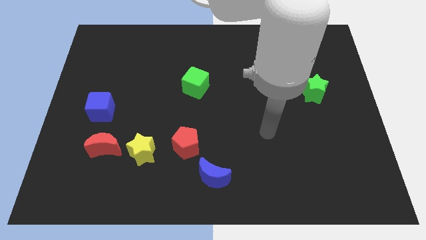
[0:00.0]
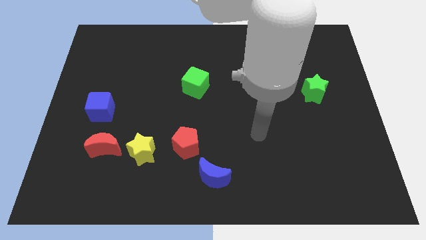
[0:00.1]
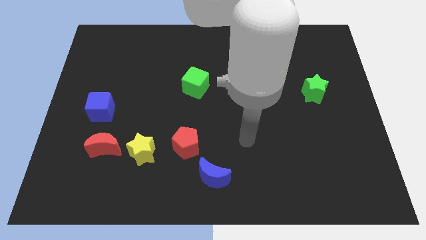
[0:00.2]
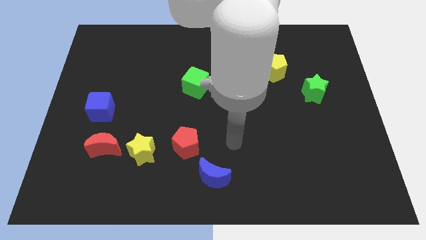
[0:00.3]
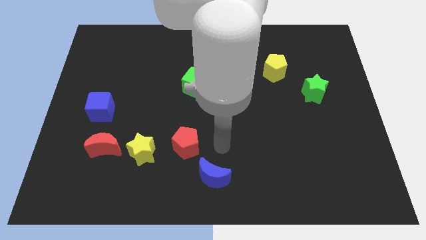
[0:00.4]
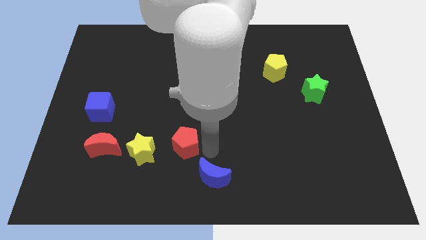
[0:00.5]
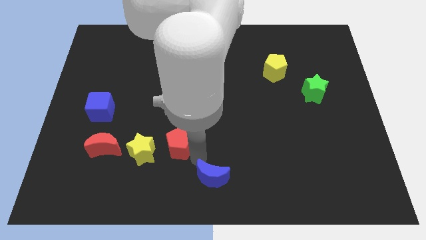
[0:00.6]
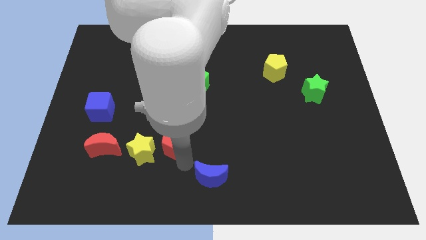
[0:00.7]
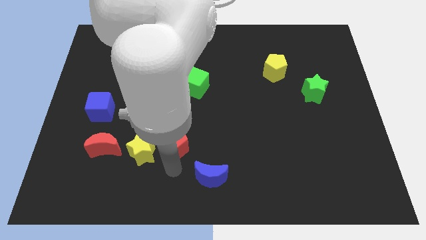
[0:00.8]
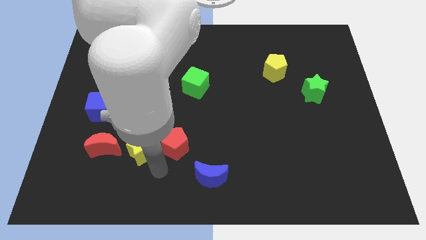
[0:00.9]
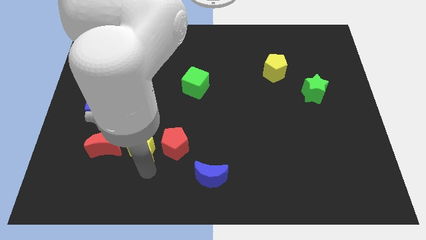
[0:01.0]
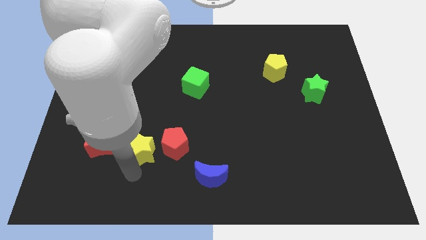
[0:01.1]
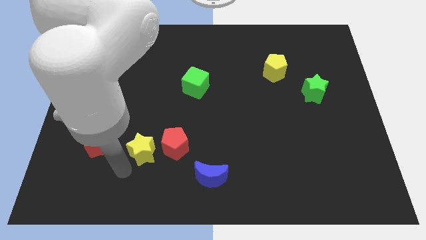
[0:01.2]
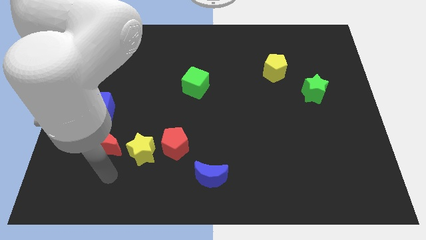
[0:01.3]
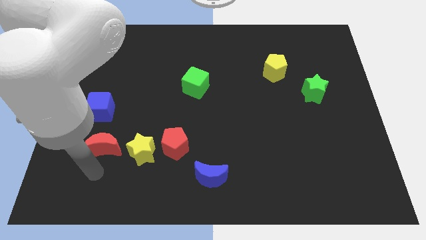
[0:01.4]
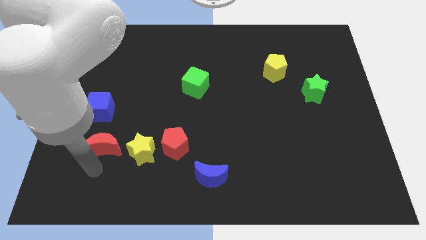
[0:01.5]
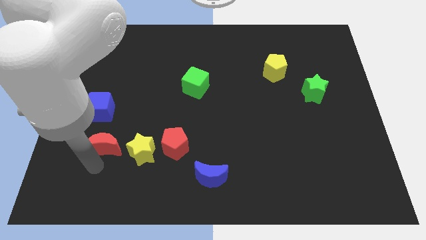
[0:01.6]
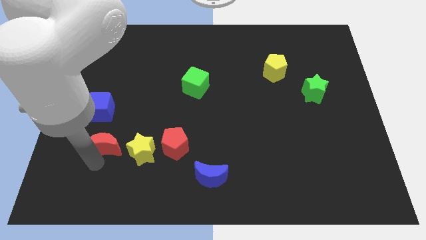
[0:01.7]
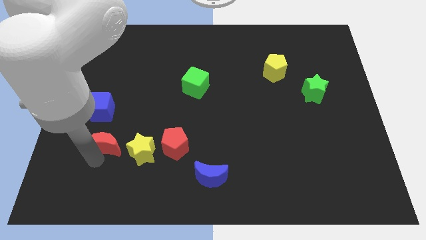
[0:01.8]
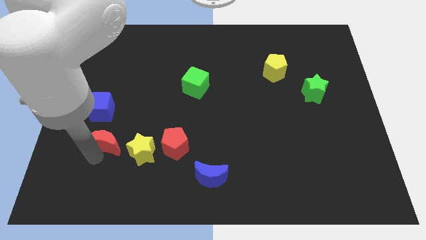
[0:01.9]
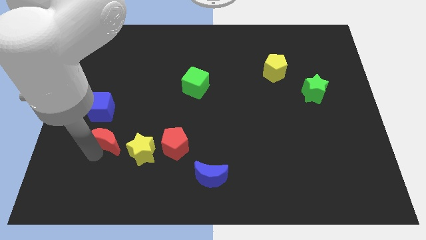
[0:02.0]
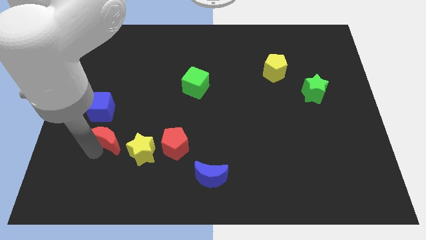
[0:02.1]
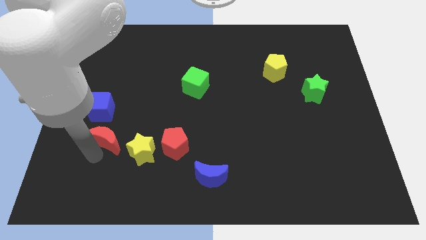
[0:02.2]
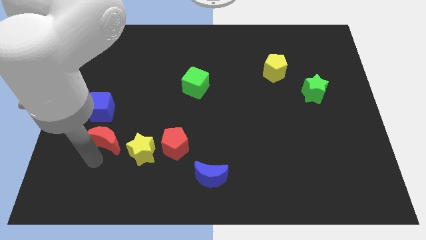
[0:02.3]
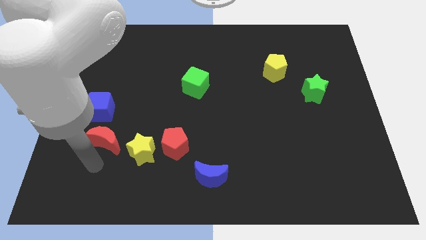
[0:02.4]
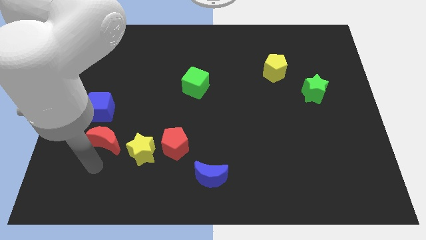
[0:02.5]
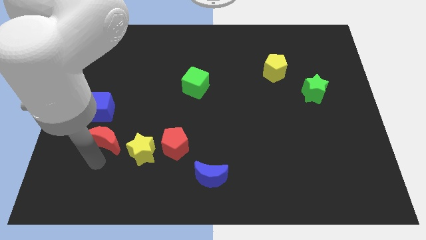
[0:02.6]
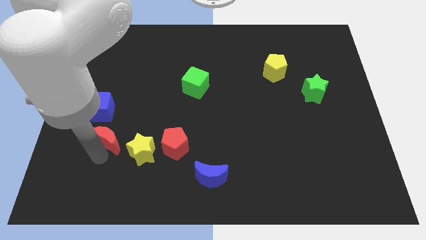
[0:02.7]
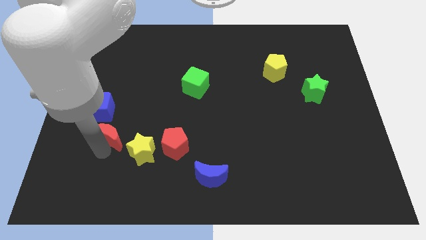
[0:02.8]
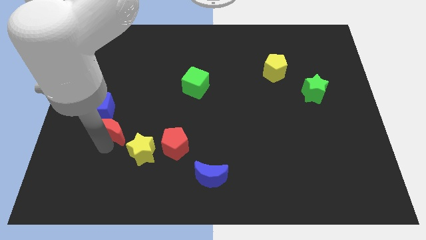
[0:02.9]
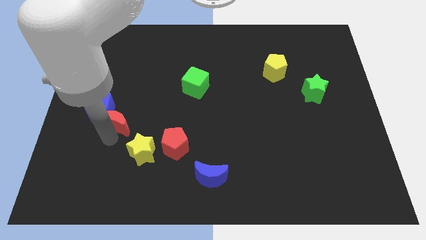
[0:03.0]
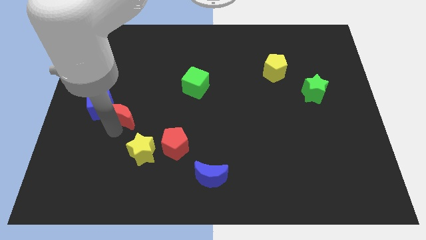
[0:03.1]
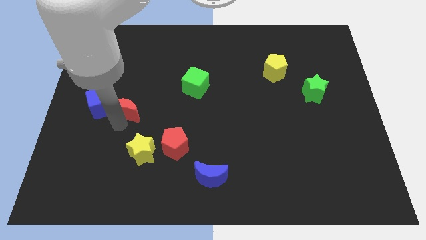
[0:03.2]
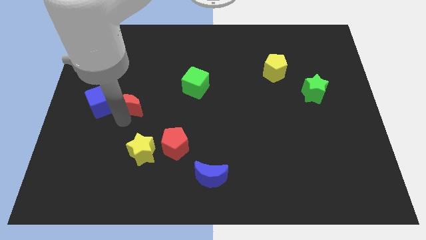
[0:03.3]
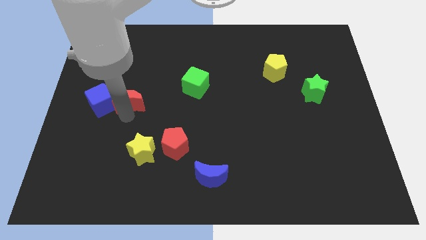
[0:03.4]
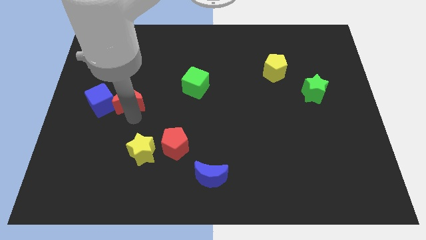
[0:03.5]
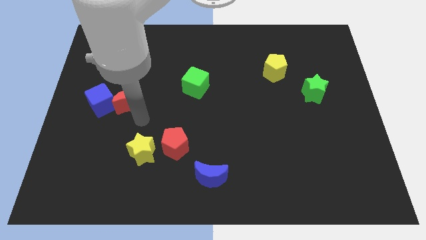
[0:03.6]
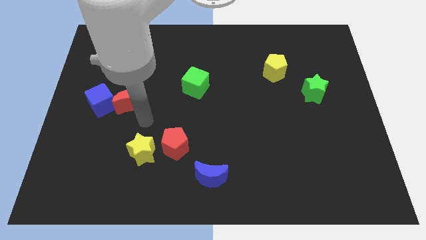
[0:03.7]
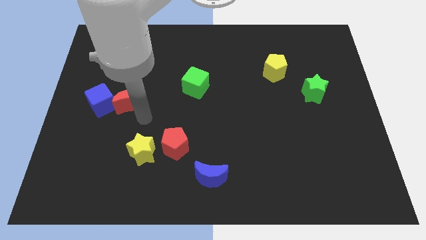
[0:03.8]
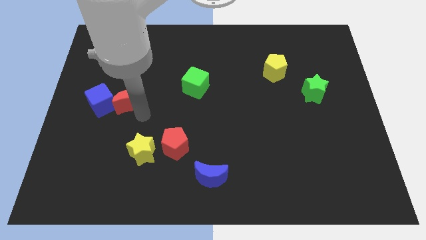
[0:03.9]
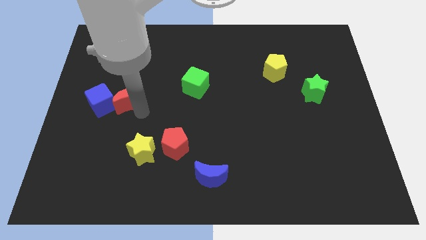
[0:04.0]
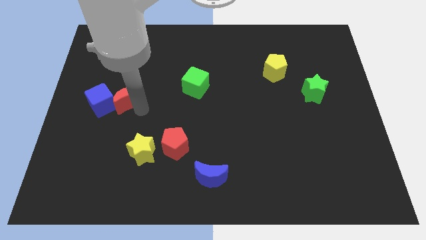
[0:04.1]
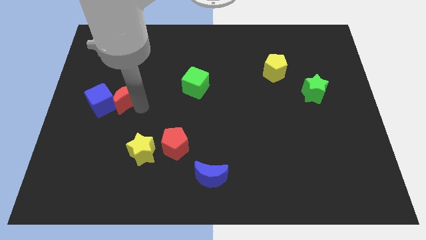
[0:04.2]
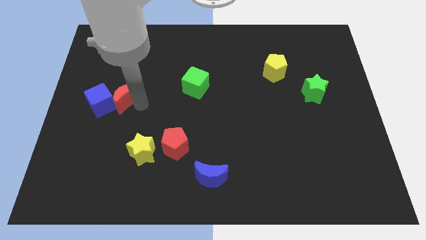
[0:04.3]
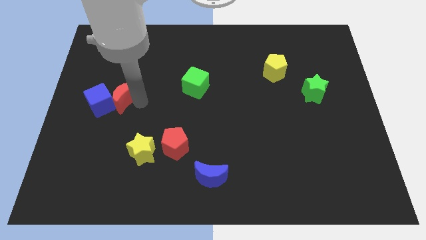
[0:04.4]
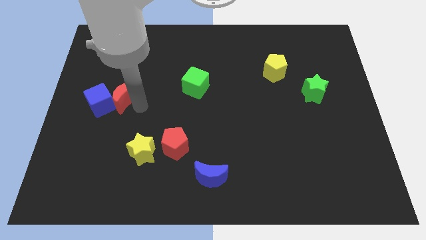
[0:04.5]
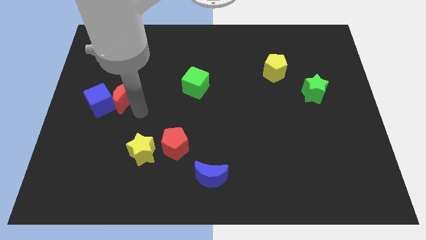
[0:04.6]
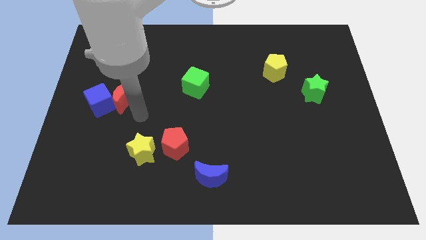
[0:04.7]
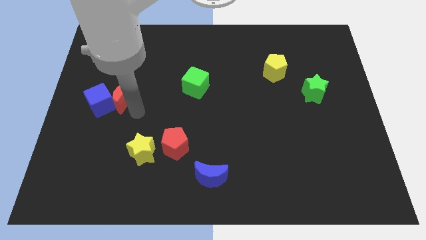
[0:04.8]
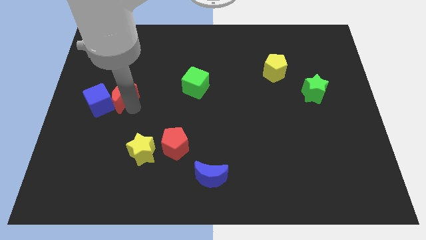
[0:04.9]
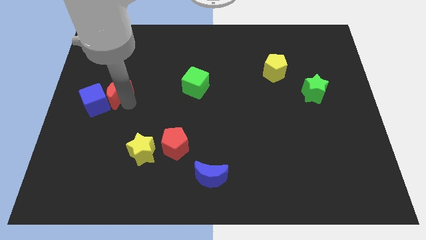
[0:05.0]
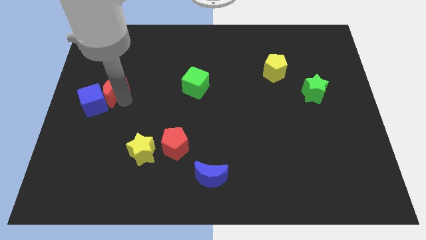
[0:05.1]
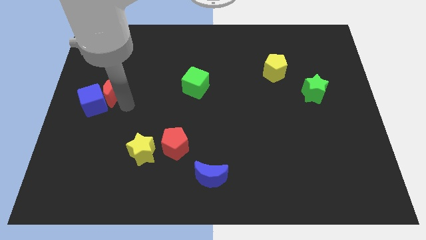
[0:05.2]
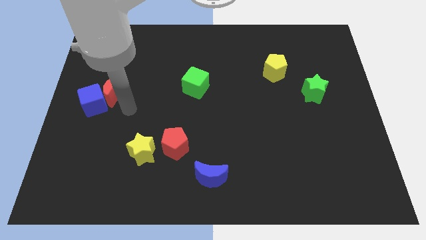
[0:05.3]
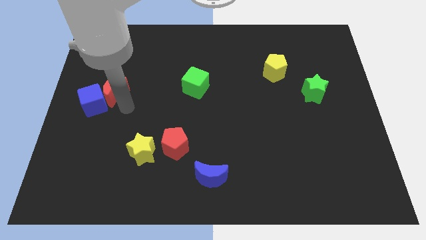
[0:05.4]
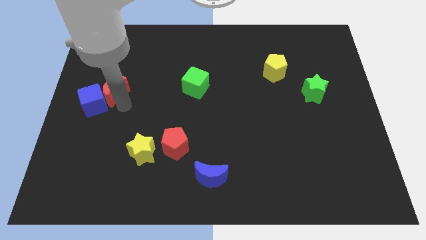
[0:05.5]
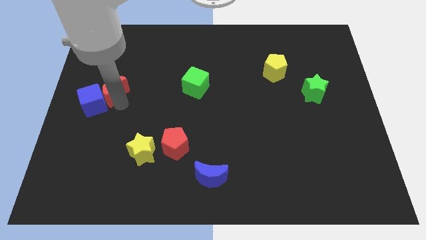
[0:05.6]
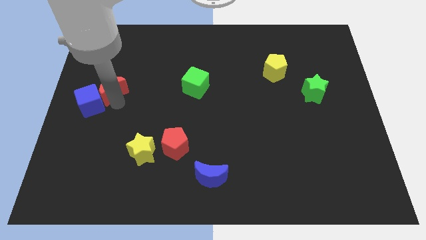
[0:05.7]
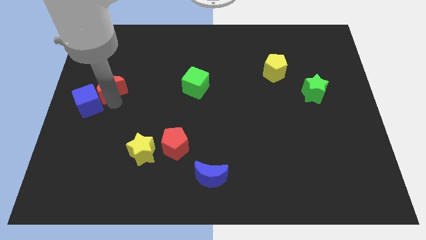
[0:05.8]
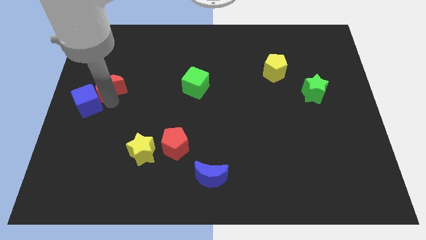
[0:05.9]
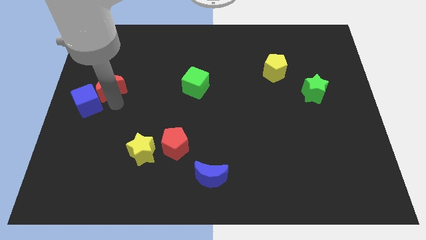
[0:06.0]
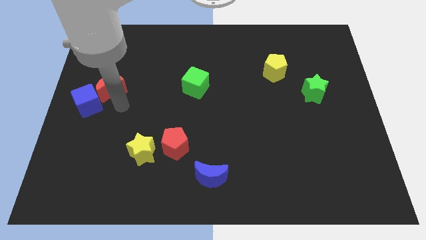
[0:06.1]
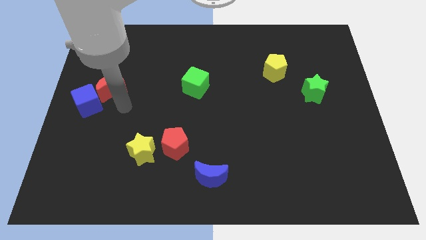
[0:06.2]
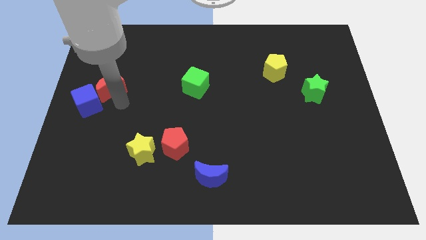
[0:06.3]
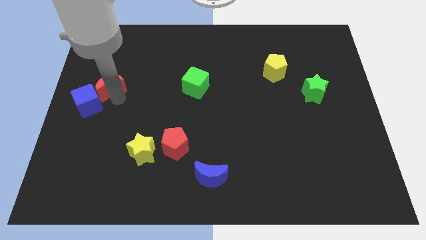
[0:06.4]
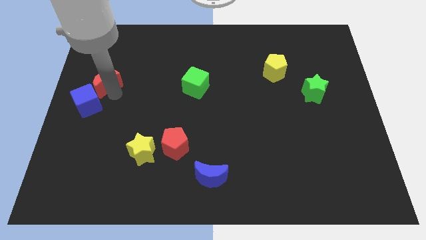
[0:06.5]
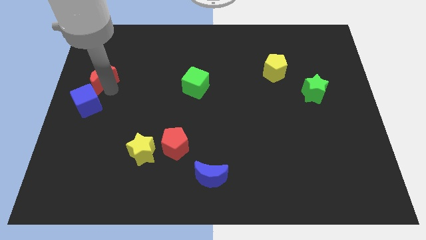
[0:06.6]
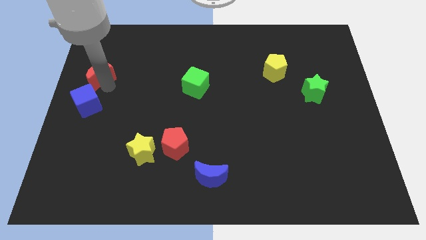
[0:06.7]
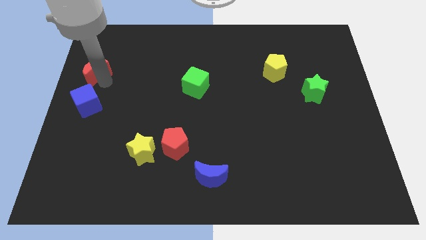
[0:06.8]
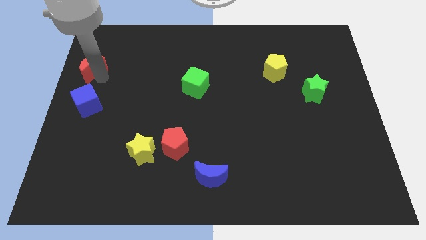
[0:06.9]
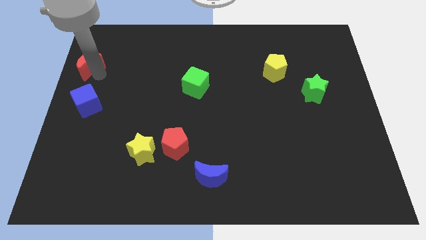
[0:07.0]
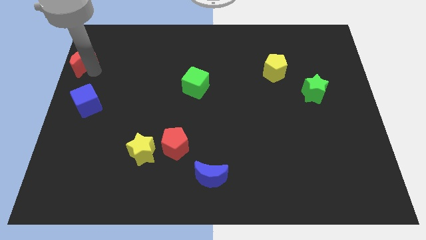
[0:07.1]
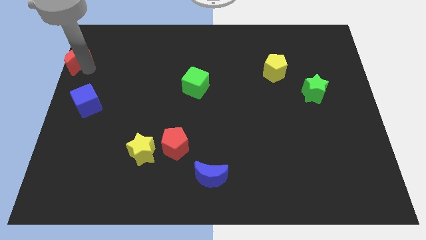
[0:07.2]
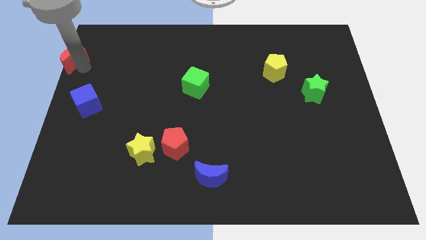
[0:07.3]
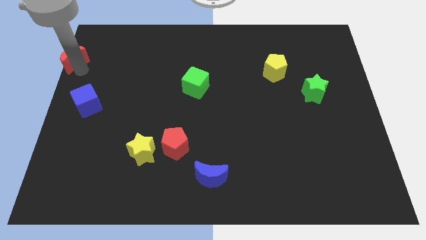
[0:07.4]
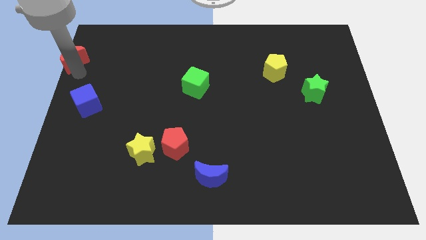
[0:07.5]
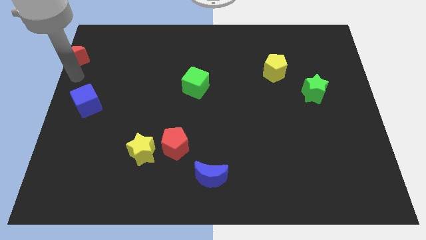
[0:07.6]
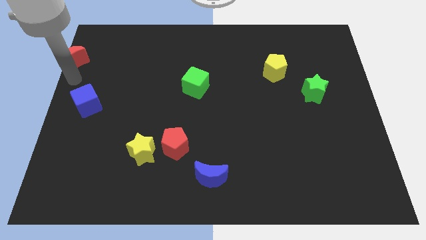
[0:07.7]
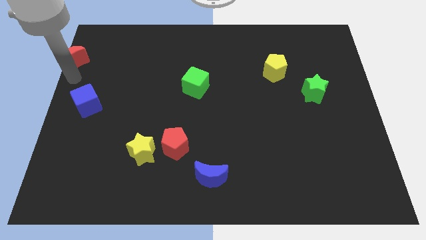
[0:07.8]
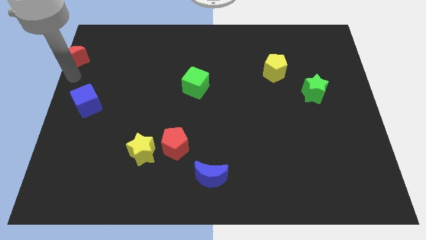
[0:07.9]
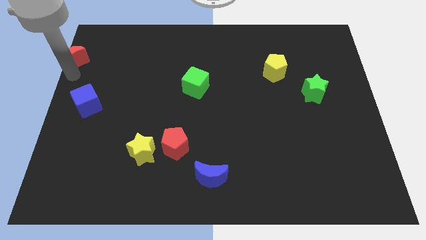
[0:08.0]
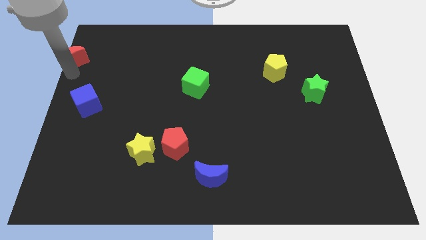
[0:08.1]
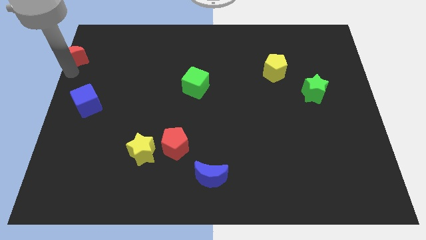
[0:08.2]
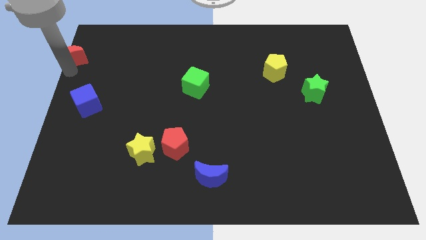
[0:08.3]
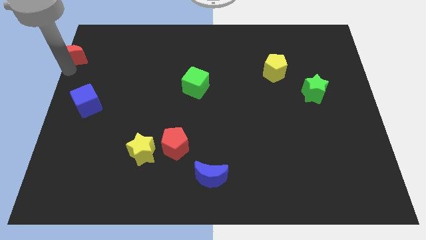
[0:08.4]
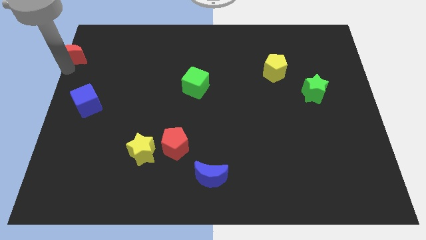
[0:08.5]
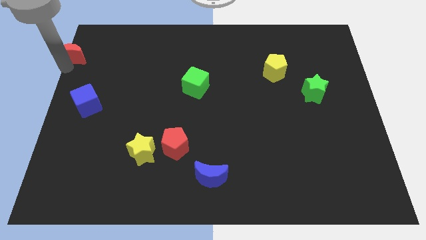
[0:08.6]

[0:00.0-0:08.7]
push the red moon to the top left
